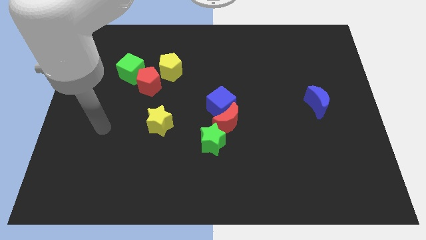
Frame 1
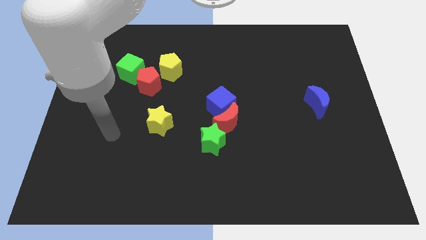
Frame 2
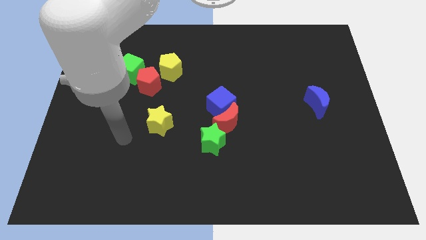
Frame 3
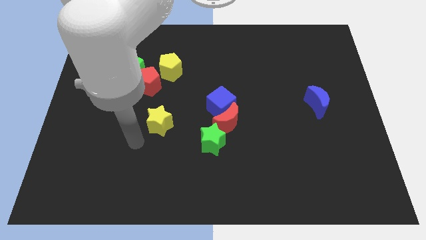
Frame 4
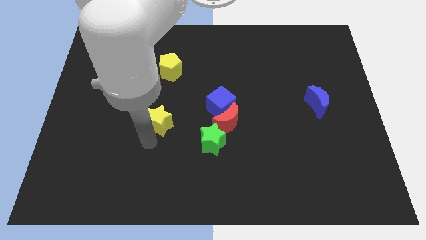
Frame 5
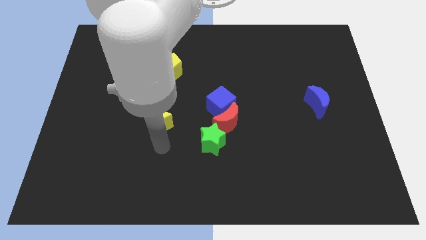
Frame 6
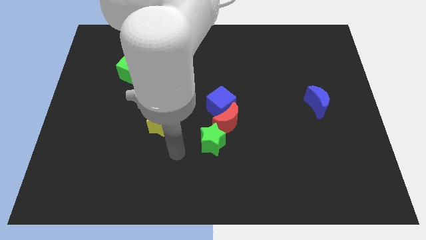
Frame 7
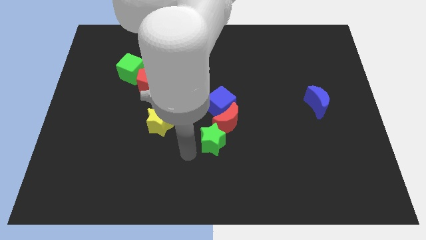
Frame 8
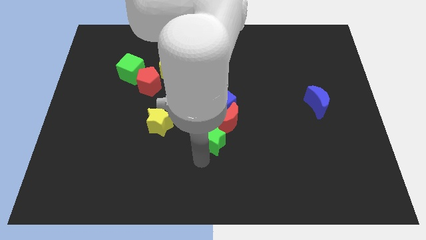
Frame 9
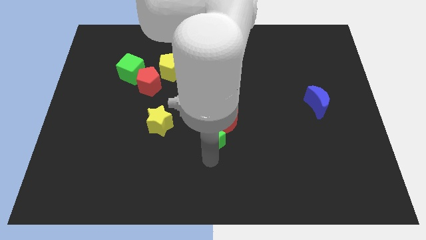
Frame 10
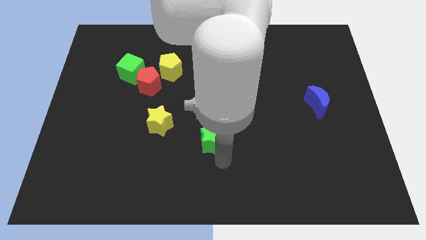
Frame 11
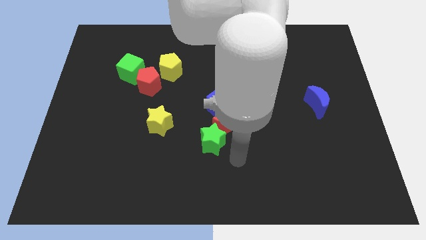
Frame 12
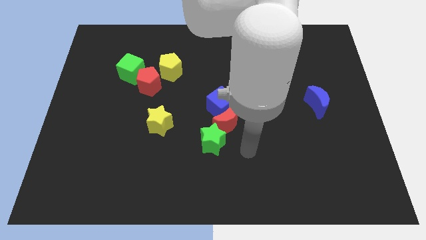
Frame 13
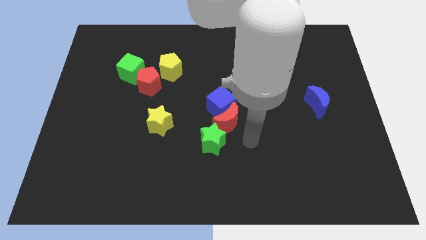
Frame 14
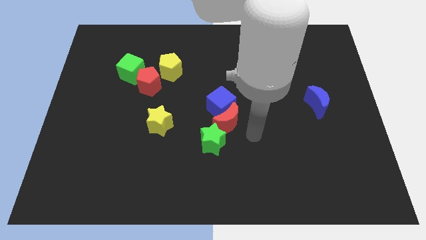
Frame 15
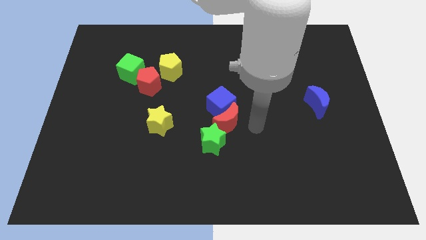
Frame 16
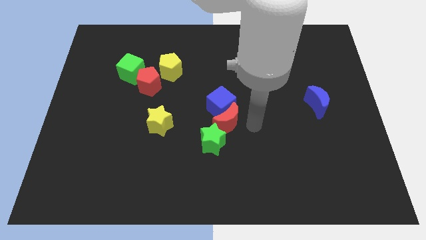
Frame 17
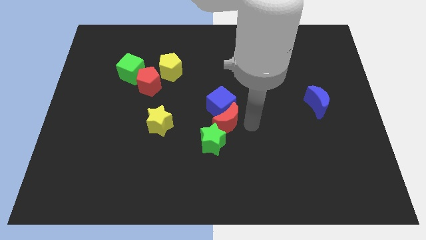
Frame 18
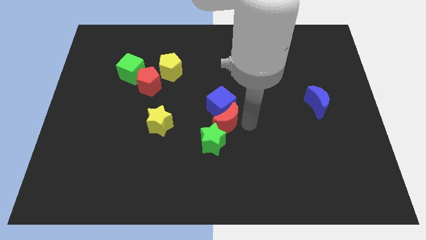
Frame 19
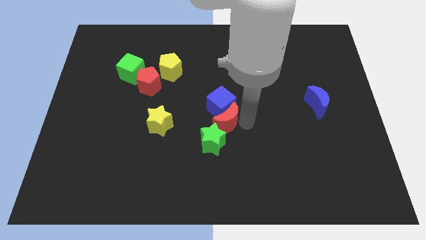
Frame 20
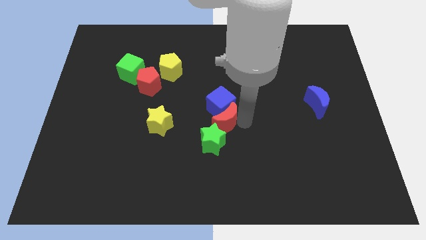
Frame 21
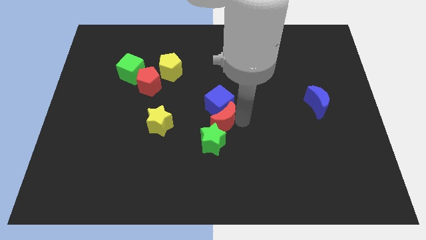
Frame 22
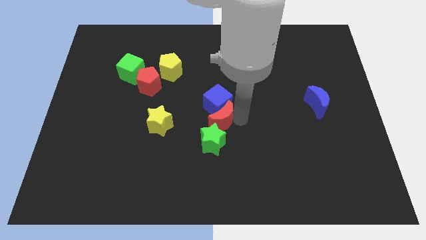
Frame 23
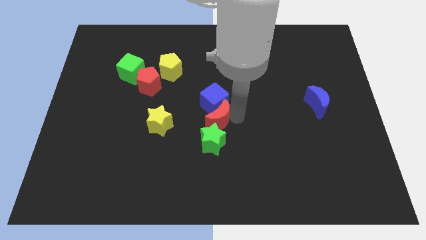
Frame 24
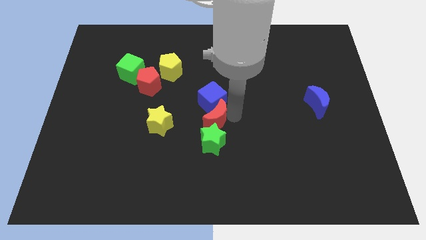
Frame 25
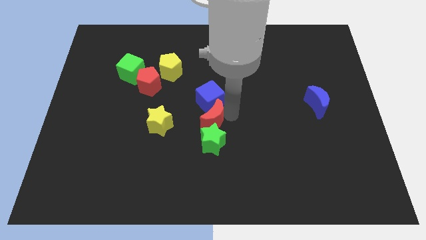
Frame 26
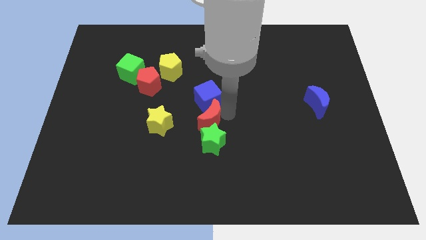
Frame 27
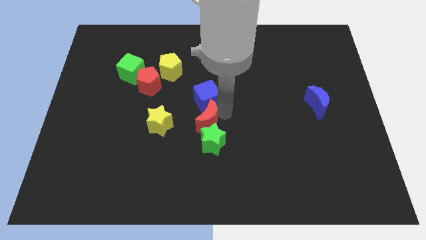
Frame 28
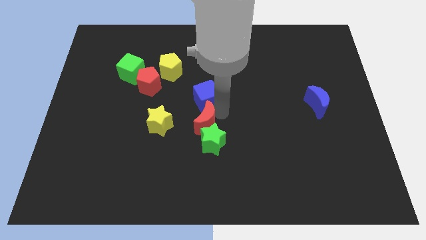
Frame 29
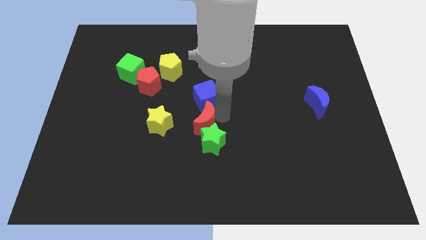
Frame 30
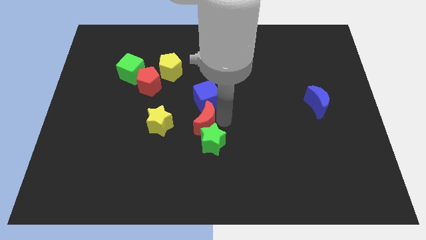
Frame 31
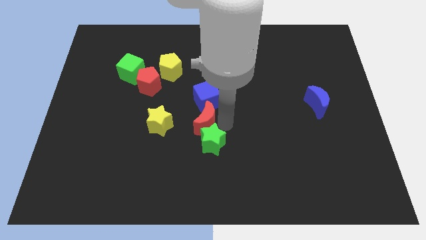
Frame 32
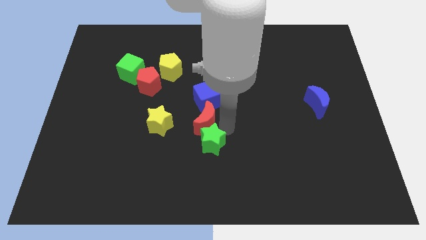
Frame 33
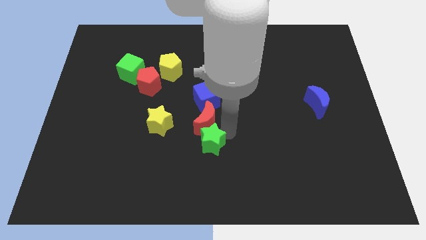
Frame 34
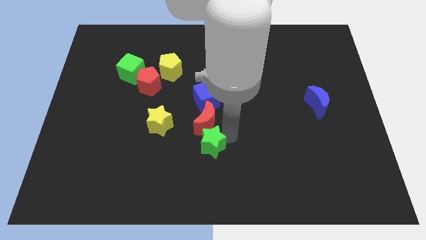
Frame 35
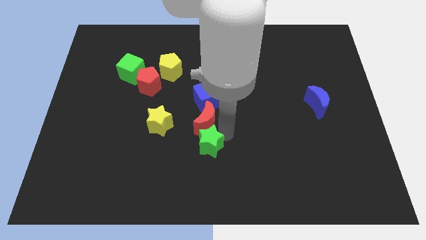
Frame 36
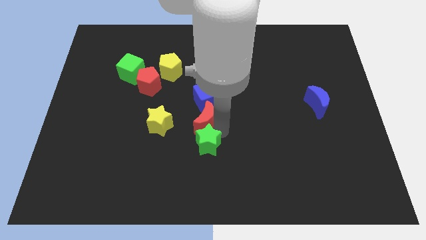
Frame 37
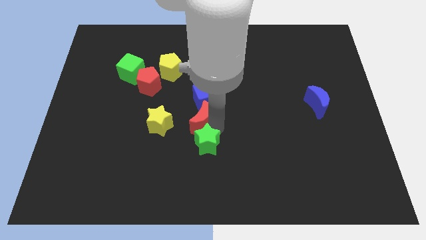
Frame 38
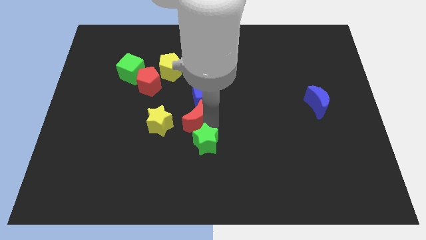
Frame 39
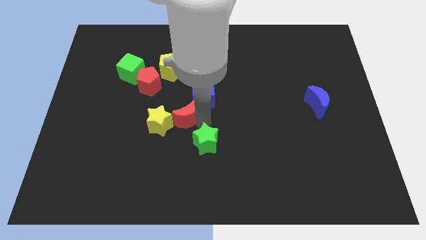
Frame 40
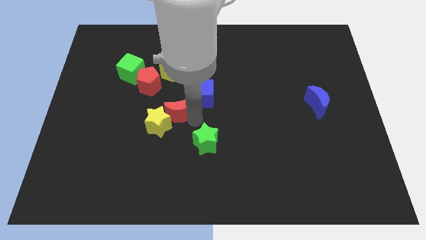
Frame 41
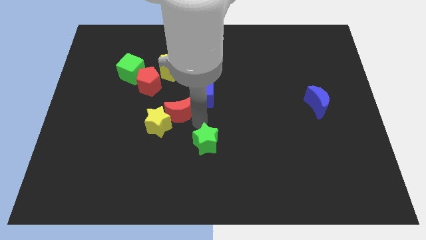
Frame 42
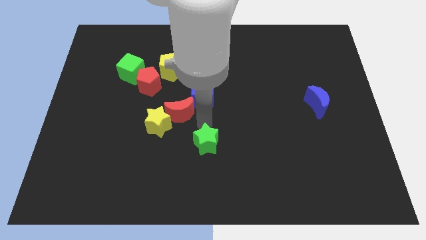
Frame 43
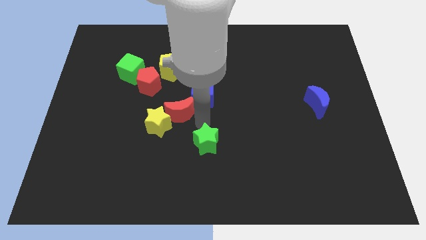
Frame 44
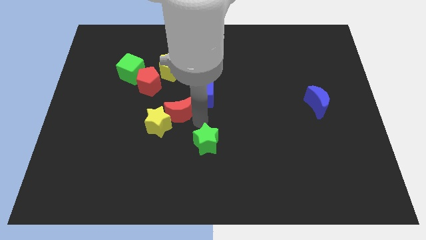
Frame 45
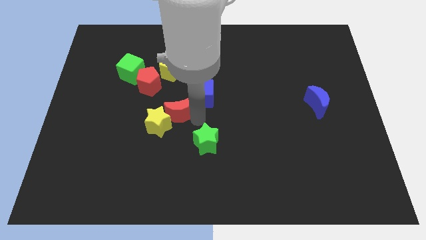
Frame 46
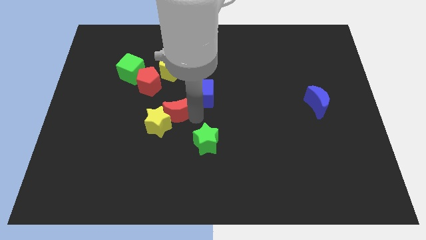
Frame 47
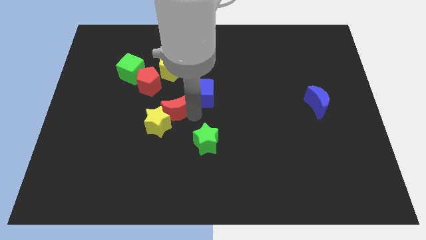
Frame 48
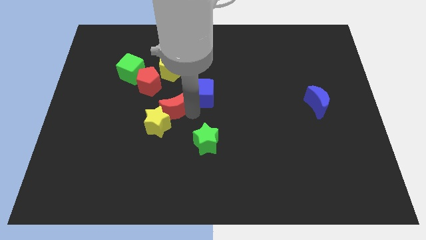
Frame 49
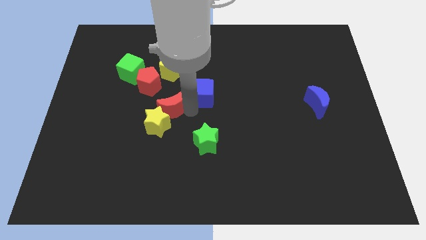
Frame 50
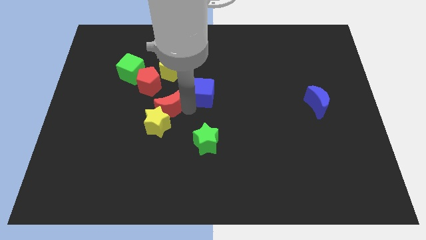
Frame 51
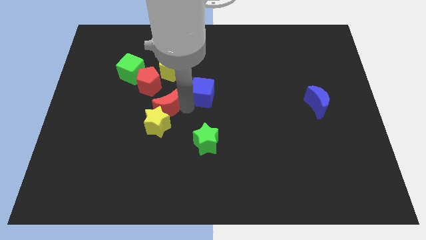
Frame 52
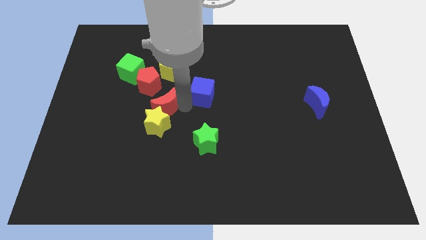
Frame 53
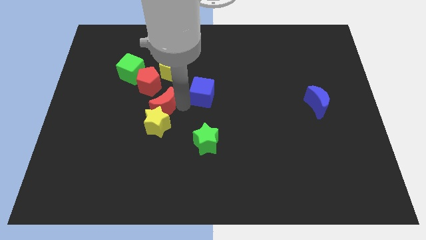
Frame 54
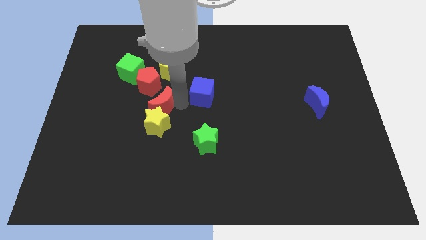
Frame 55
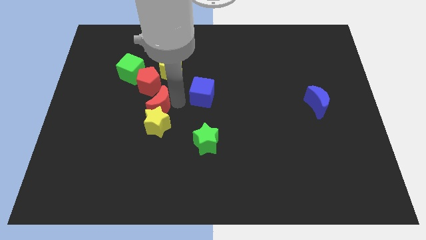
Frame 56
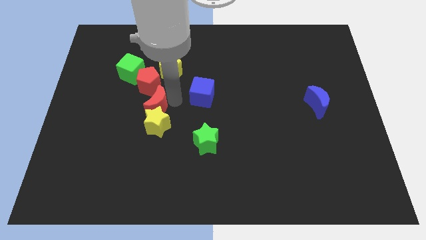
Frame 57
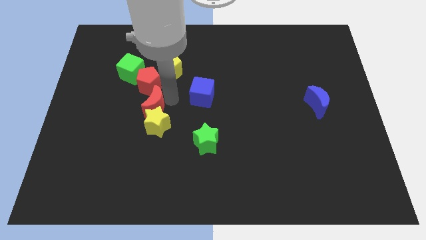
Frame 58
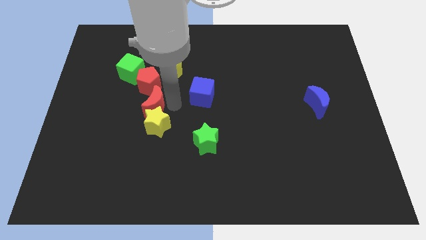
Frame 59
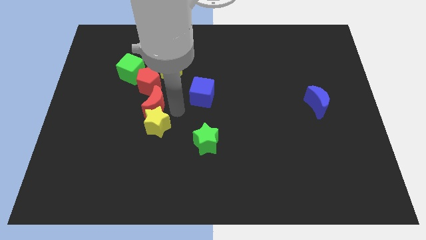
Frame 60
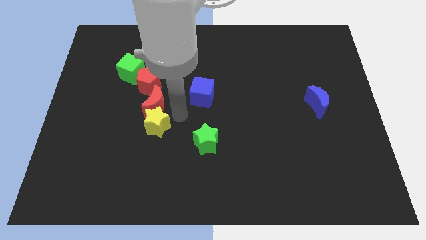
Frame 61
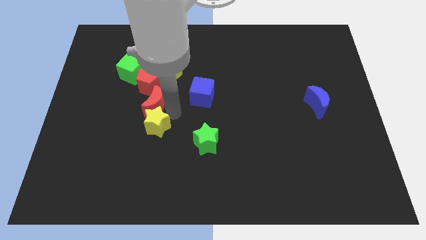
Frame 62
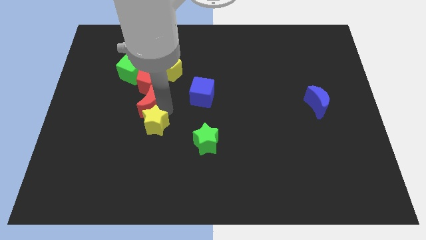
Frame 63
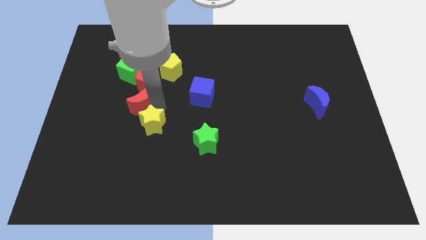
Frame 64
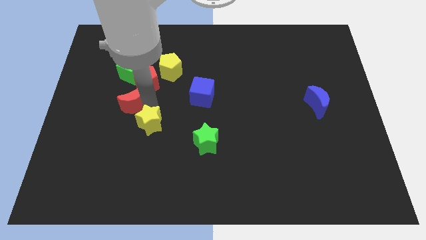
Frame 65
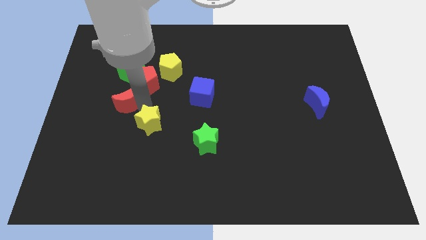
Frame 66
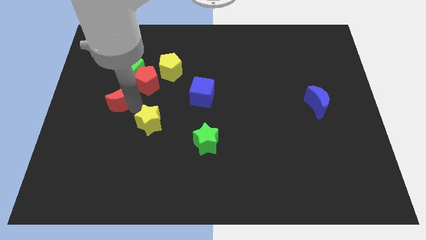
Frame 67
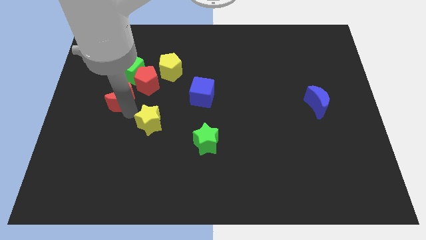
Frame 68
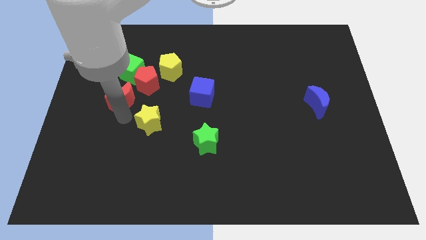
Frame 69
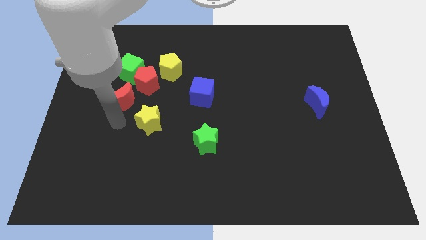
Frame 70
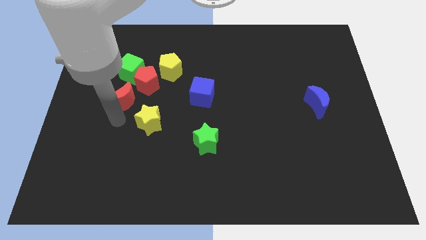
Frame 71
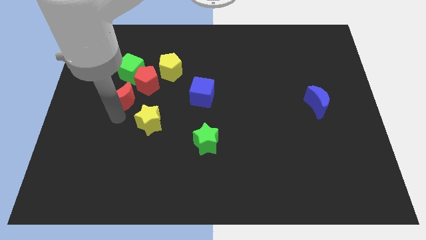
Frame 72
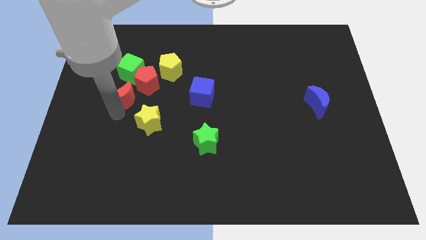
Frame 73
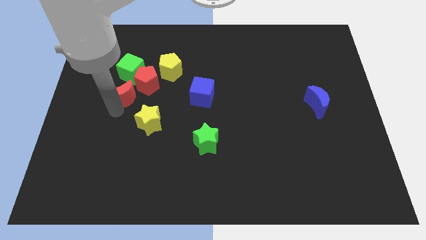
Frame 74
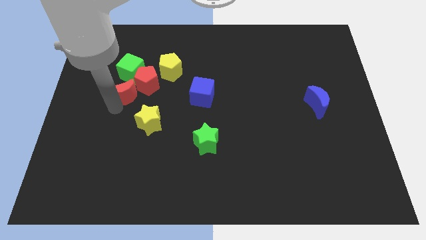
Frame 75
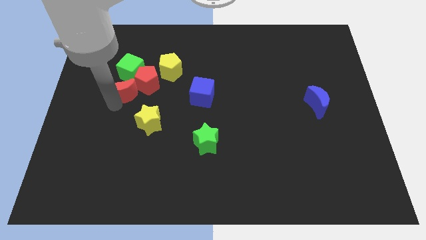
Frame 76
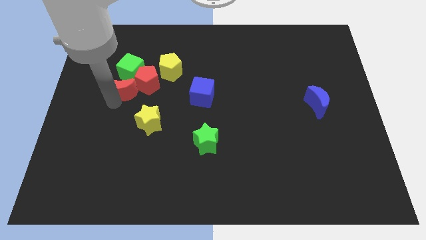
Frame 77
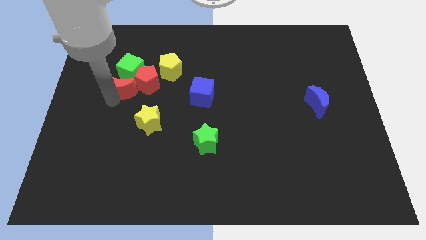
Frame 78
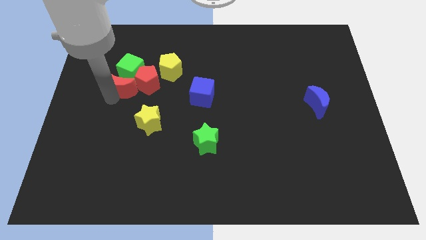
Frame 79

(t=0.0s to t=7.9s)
slide the red moon to the green cube
